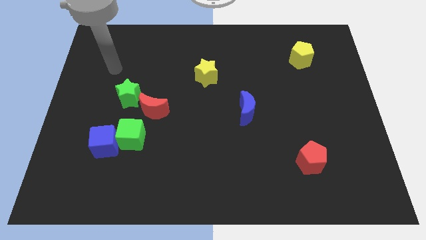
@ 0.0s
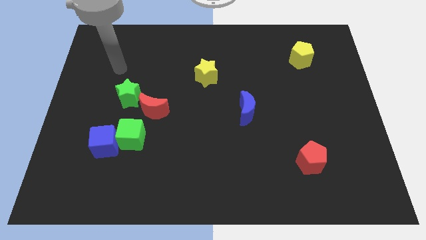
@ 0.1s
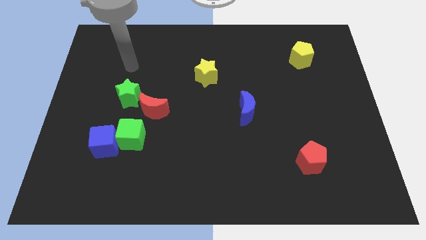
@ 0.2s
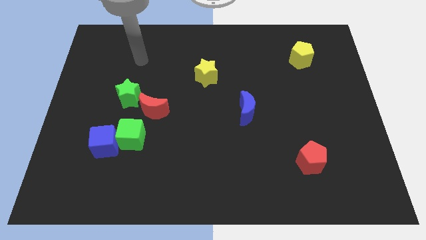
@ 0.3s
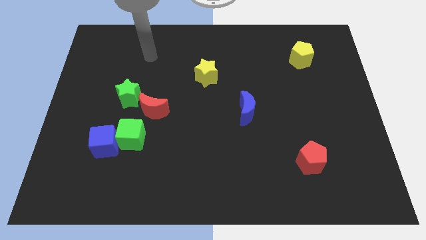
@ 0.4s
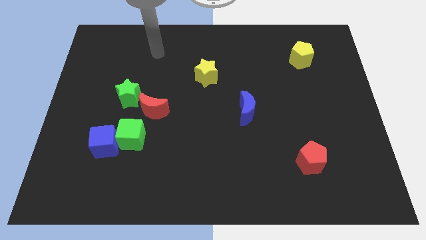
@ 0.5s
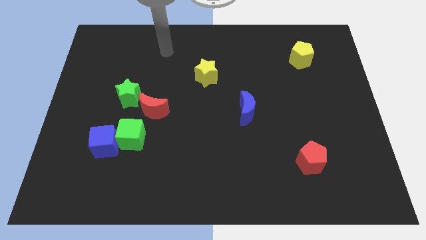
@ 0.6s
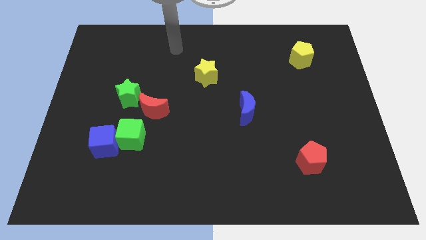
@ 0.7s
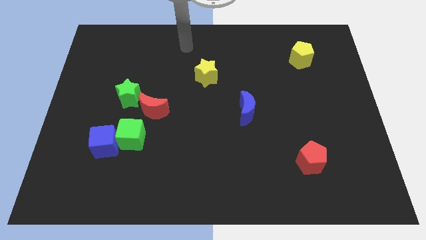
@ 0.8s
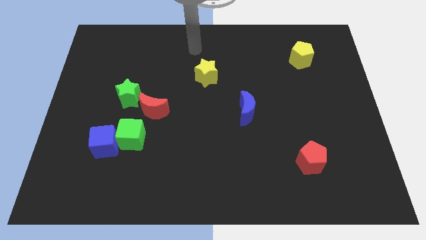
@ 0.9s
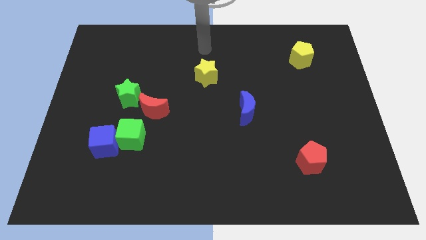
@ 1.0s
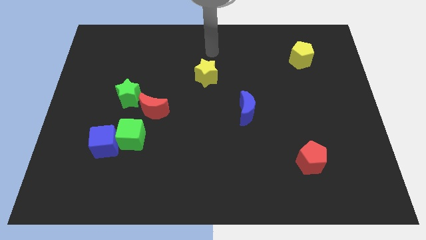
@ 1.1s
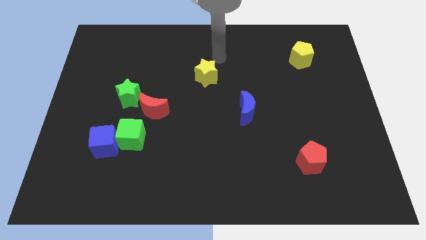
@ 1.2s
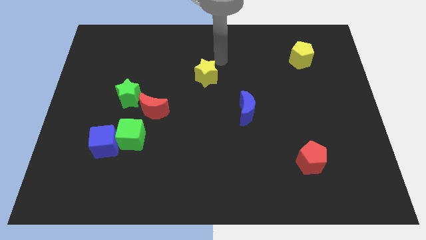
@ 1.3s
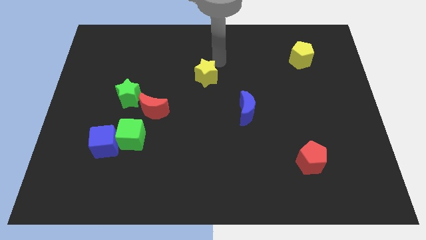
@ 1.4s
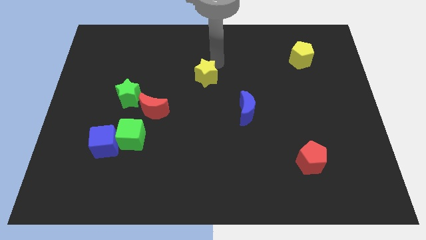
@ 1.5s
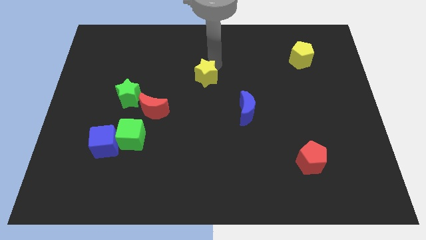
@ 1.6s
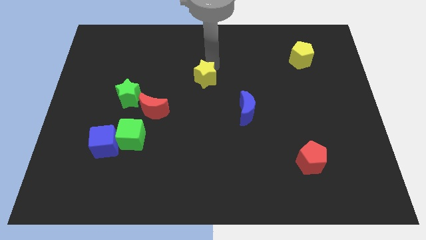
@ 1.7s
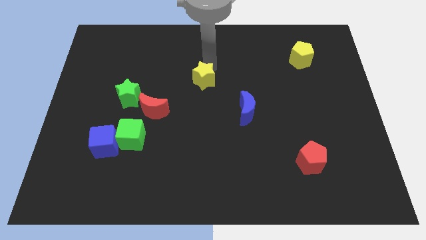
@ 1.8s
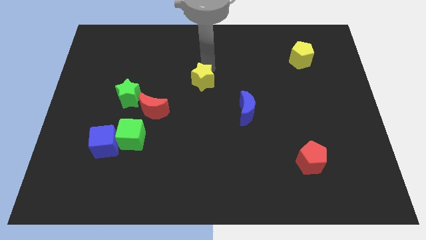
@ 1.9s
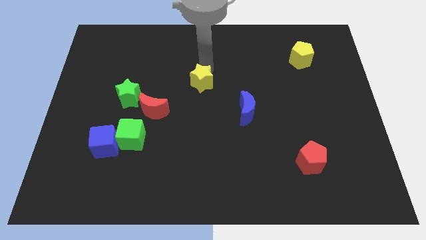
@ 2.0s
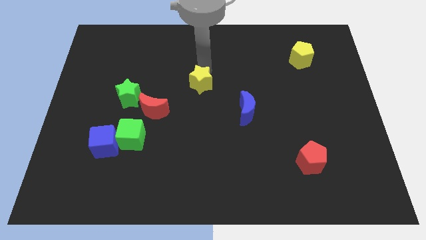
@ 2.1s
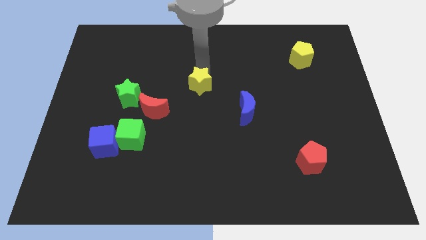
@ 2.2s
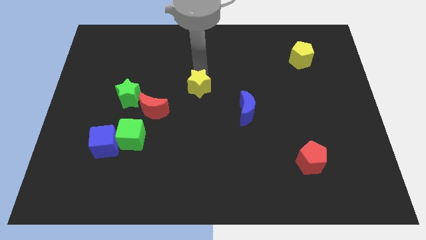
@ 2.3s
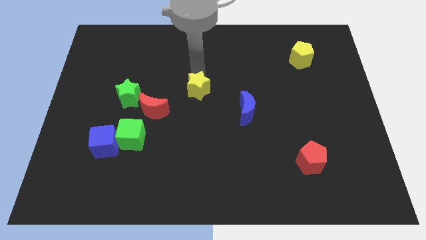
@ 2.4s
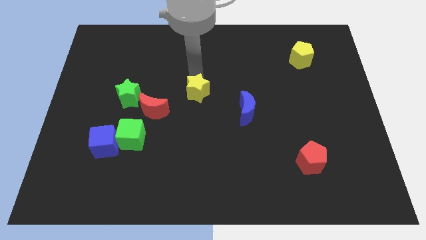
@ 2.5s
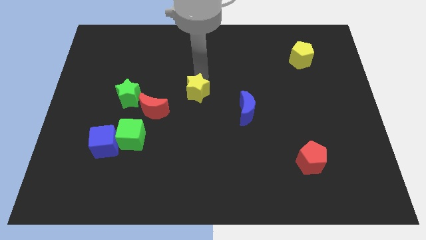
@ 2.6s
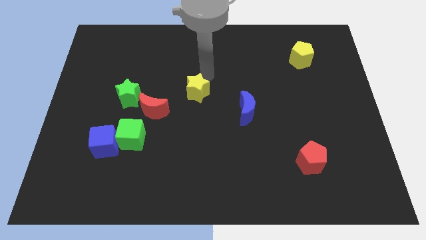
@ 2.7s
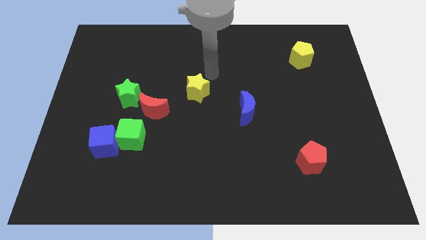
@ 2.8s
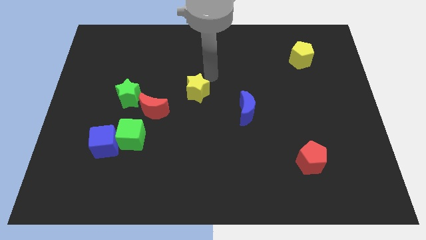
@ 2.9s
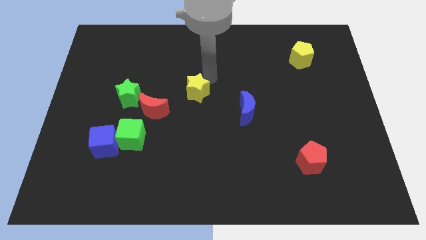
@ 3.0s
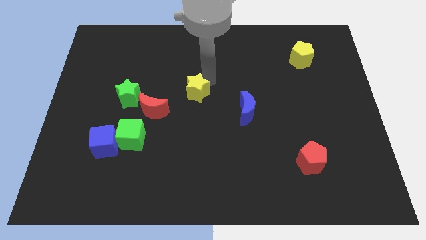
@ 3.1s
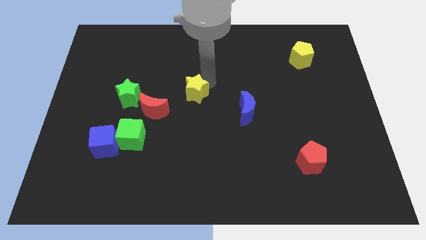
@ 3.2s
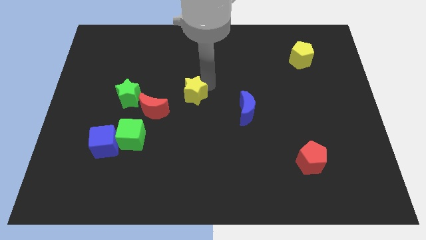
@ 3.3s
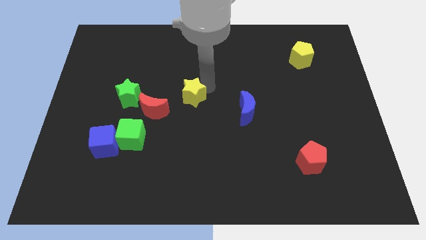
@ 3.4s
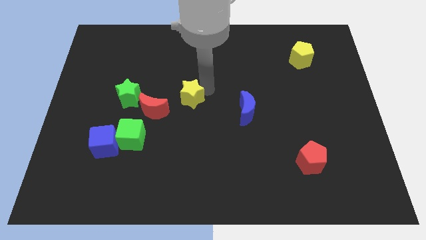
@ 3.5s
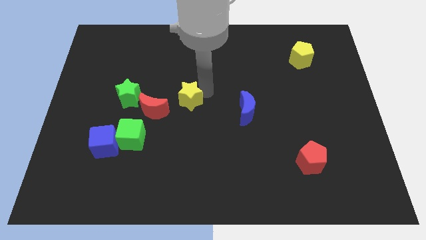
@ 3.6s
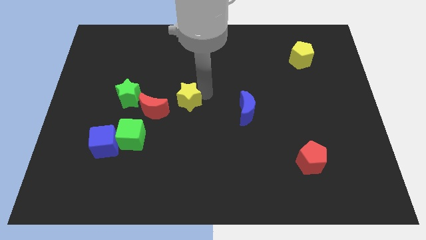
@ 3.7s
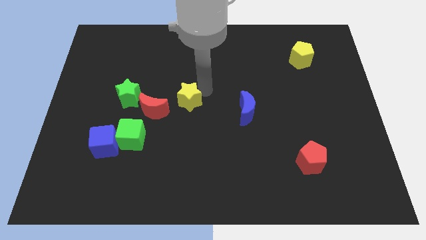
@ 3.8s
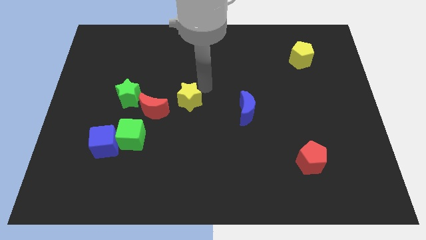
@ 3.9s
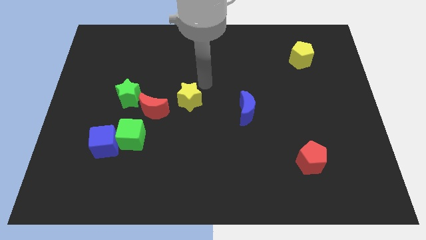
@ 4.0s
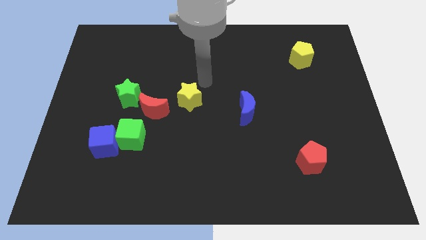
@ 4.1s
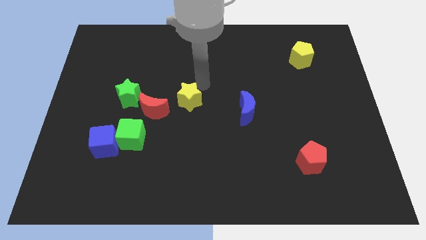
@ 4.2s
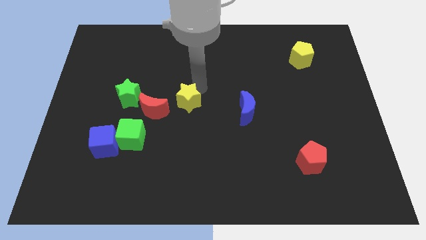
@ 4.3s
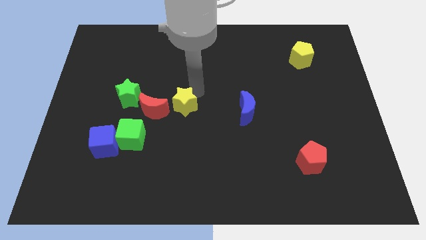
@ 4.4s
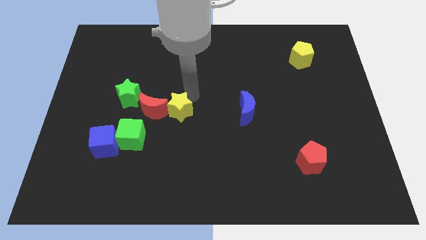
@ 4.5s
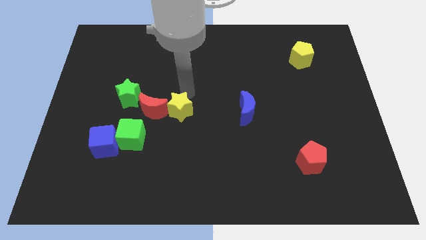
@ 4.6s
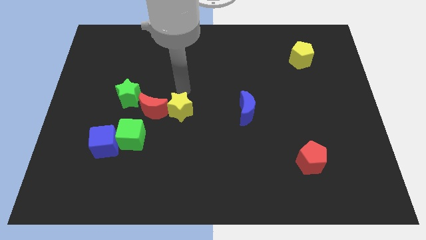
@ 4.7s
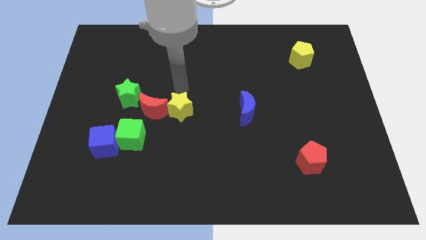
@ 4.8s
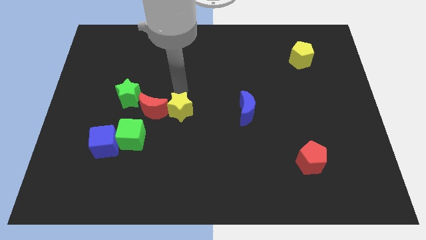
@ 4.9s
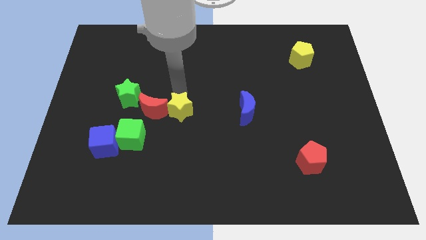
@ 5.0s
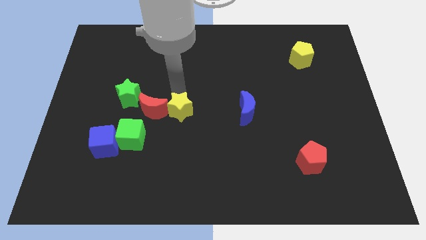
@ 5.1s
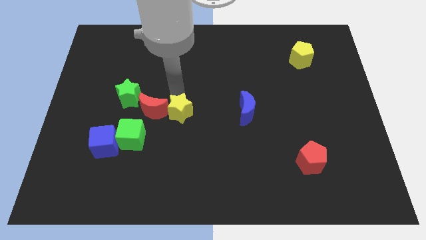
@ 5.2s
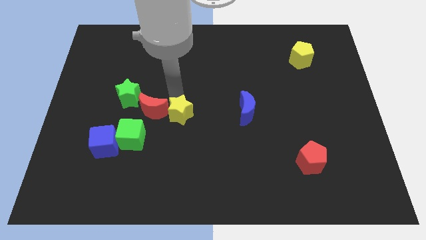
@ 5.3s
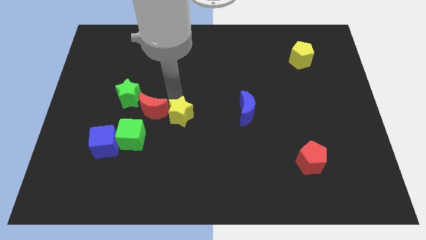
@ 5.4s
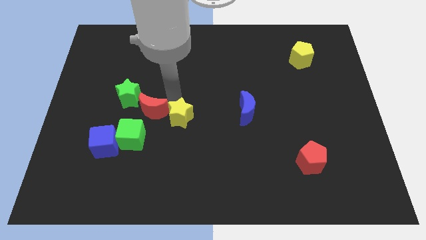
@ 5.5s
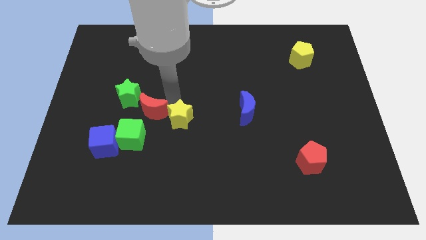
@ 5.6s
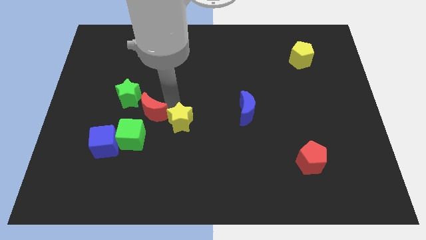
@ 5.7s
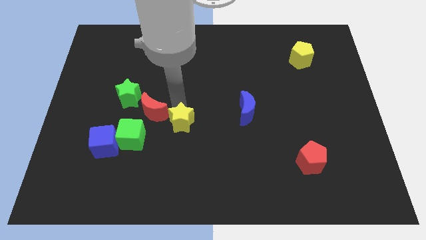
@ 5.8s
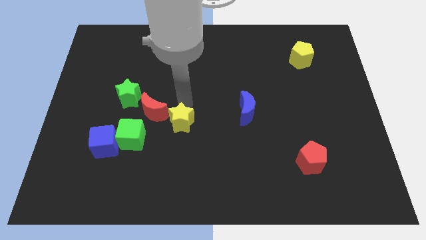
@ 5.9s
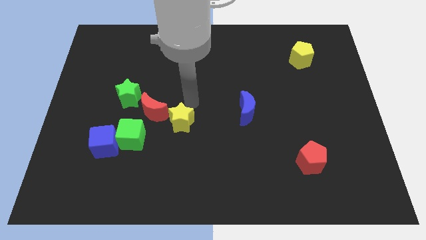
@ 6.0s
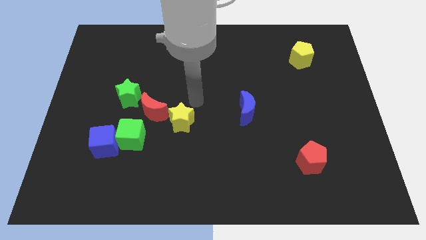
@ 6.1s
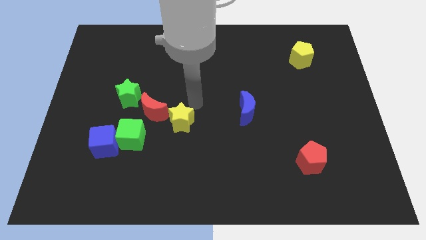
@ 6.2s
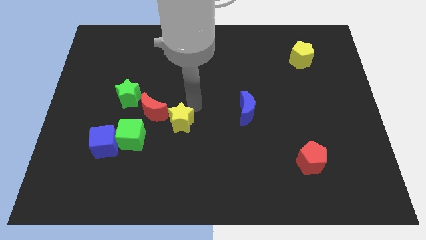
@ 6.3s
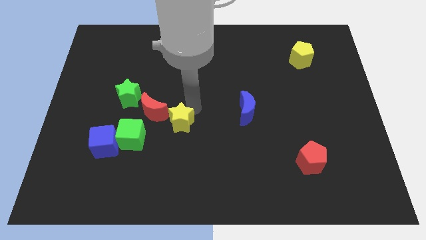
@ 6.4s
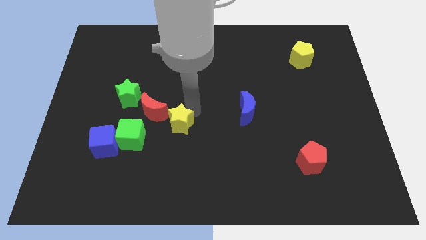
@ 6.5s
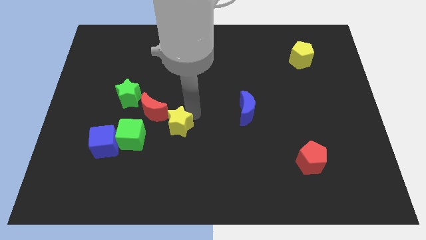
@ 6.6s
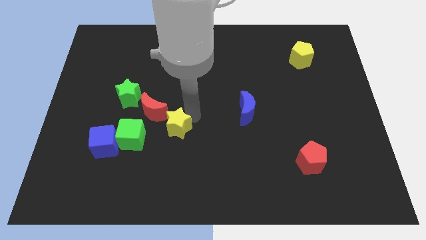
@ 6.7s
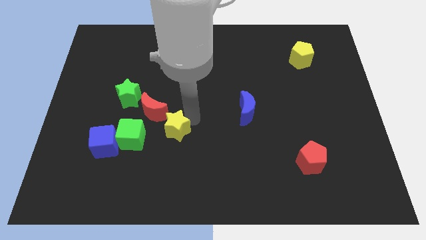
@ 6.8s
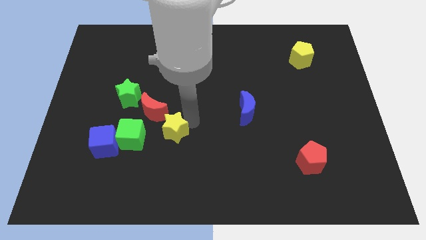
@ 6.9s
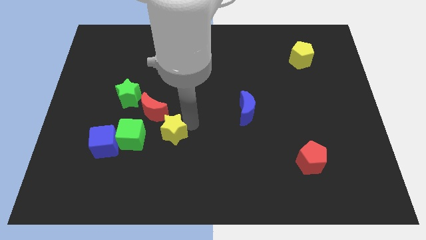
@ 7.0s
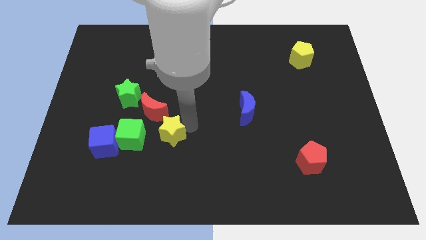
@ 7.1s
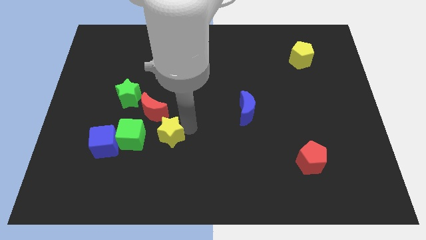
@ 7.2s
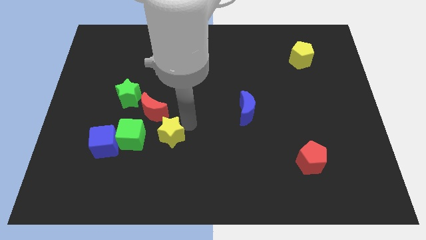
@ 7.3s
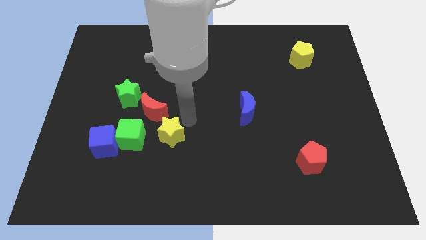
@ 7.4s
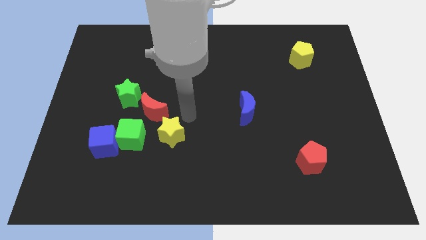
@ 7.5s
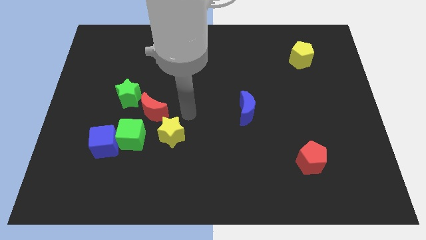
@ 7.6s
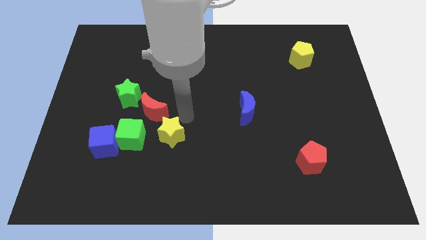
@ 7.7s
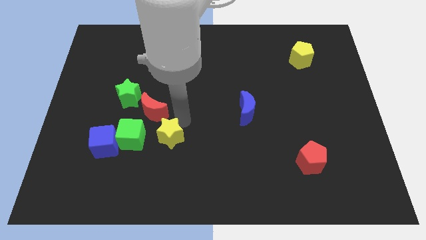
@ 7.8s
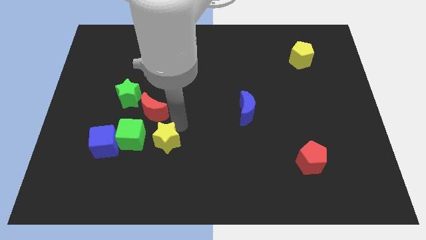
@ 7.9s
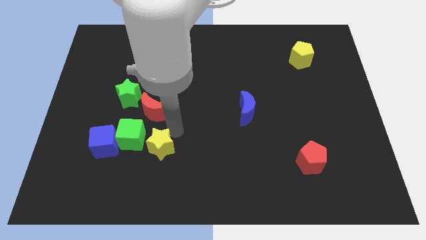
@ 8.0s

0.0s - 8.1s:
push the yellow star diagonally down and to the right of the green cube
